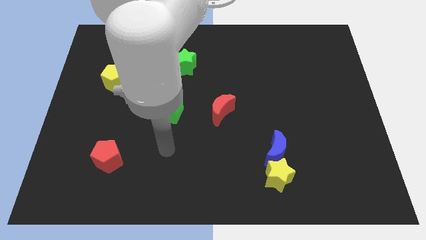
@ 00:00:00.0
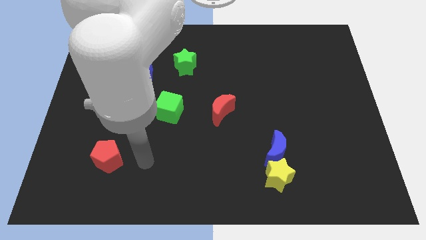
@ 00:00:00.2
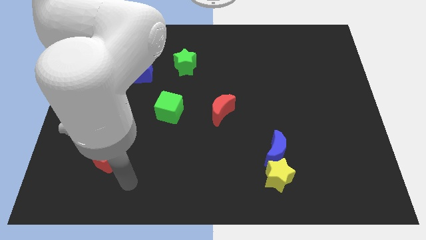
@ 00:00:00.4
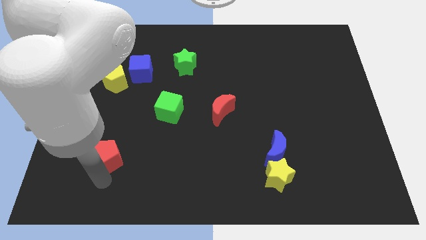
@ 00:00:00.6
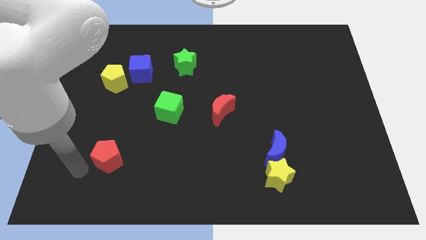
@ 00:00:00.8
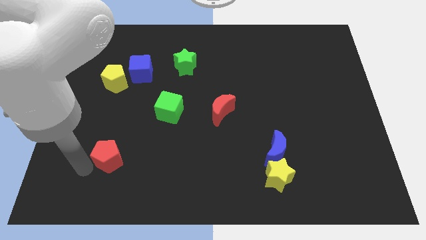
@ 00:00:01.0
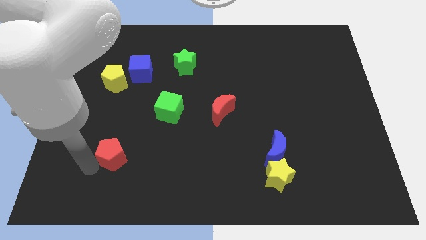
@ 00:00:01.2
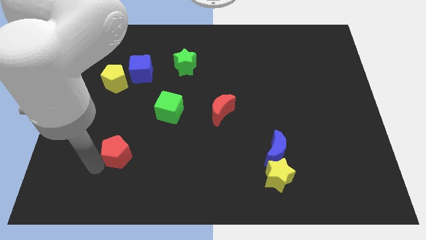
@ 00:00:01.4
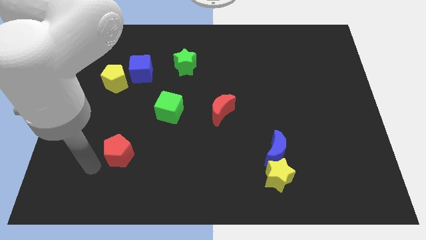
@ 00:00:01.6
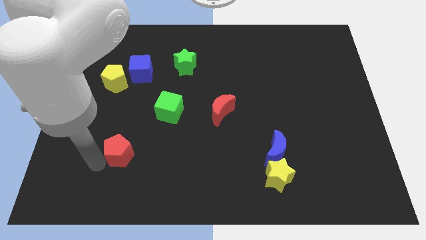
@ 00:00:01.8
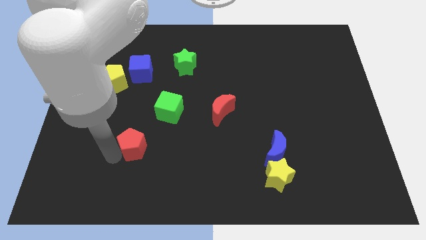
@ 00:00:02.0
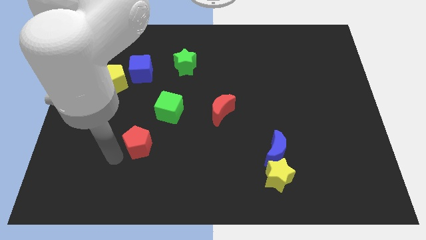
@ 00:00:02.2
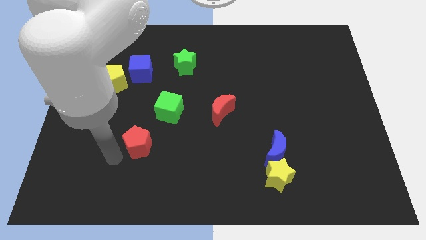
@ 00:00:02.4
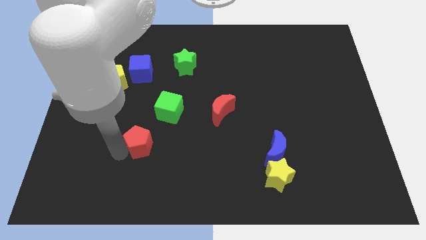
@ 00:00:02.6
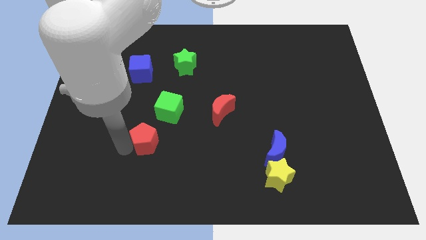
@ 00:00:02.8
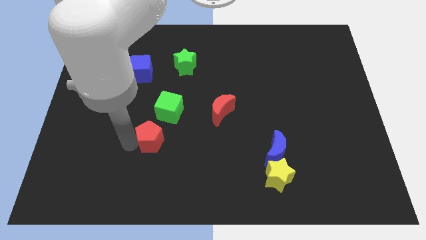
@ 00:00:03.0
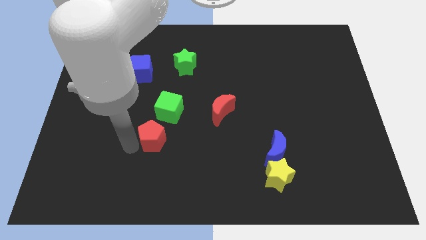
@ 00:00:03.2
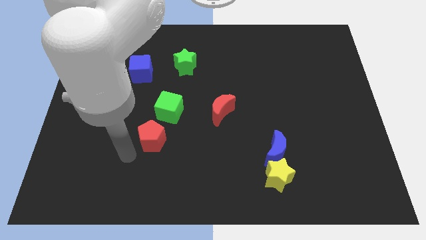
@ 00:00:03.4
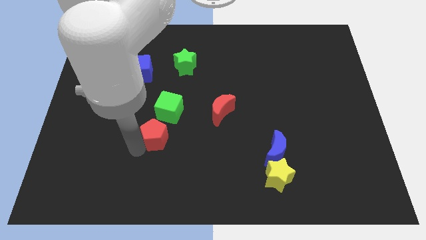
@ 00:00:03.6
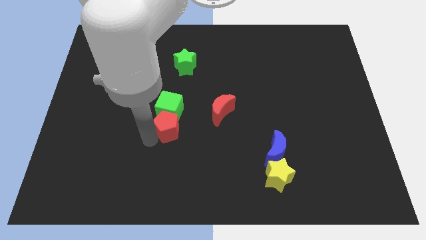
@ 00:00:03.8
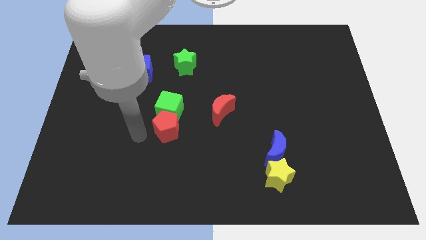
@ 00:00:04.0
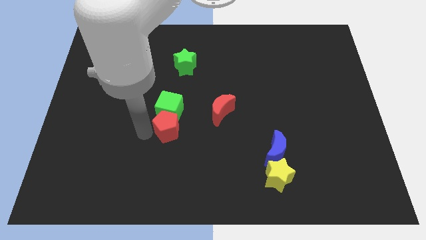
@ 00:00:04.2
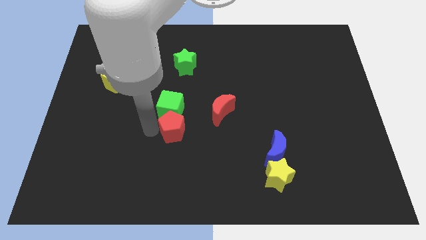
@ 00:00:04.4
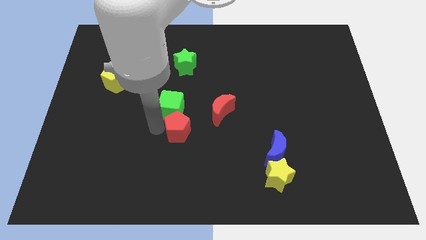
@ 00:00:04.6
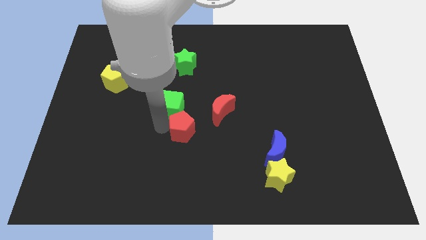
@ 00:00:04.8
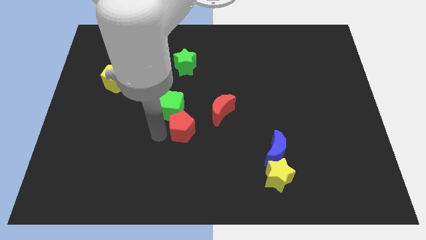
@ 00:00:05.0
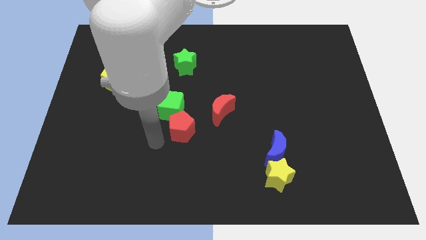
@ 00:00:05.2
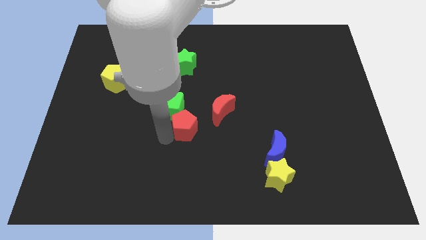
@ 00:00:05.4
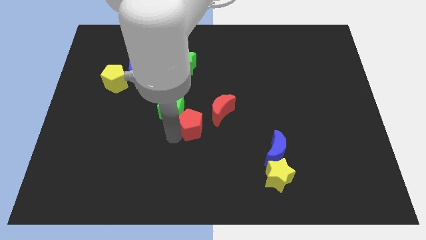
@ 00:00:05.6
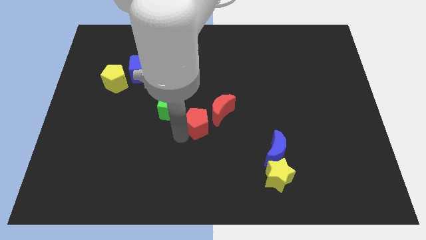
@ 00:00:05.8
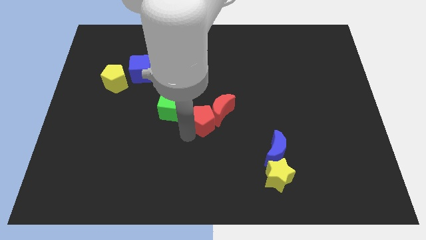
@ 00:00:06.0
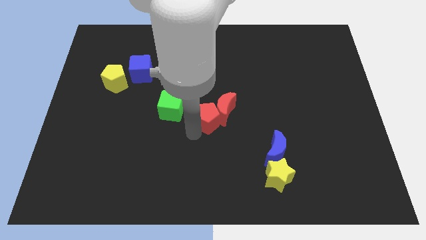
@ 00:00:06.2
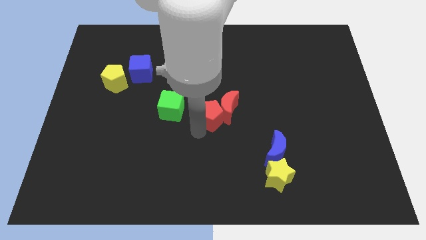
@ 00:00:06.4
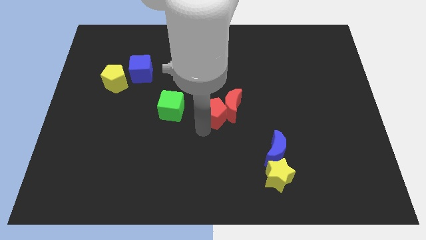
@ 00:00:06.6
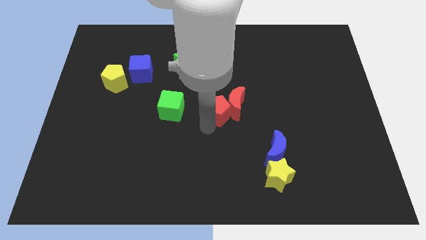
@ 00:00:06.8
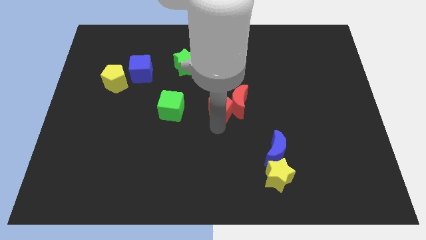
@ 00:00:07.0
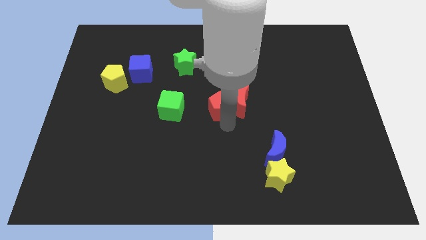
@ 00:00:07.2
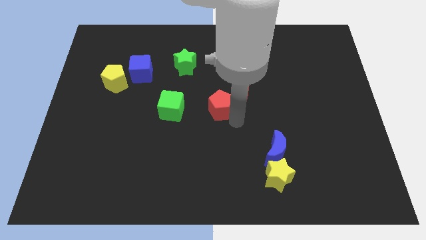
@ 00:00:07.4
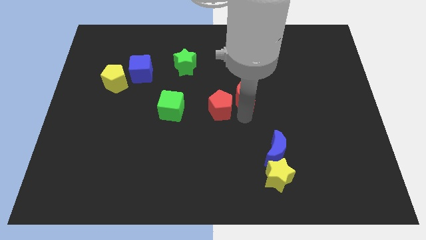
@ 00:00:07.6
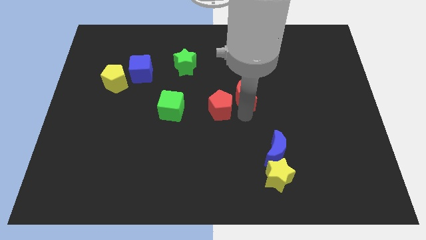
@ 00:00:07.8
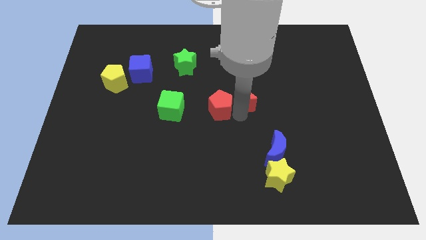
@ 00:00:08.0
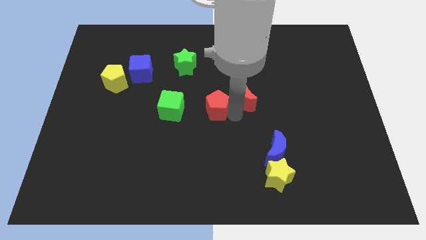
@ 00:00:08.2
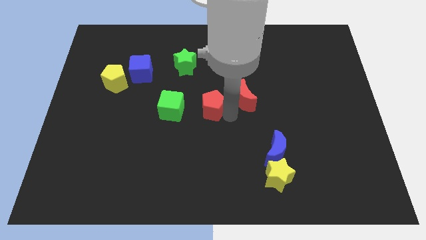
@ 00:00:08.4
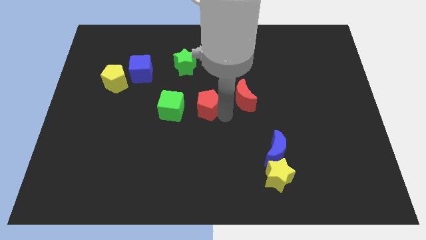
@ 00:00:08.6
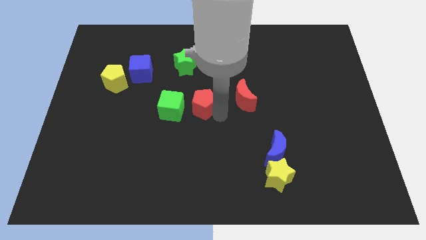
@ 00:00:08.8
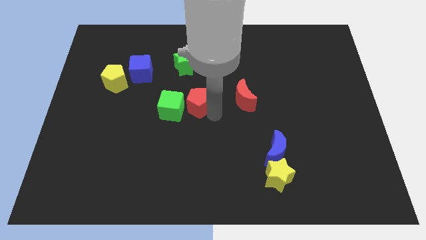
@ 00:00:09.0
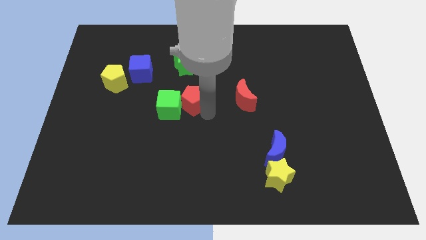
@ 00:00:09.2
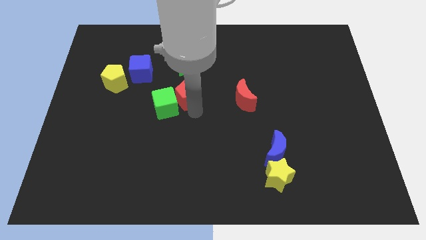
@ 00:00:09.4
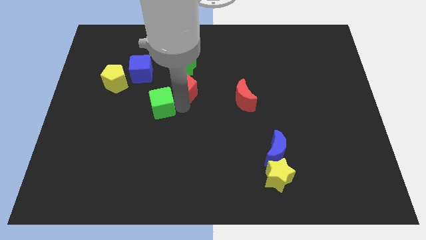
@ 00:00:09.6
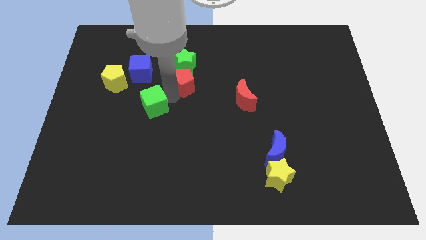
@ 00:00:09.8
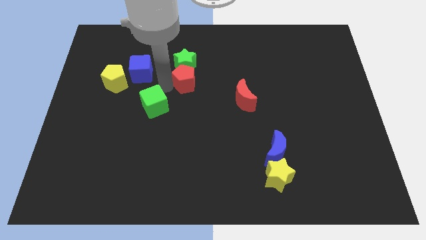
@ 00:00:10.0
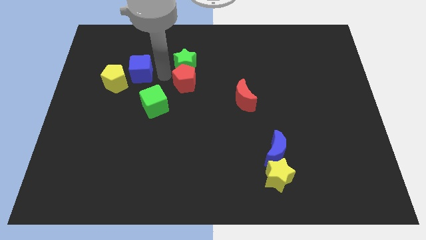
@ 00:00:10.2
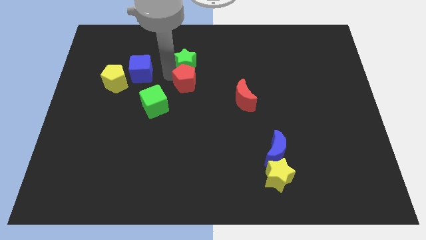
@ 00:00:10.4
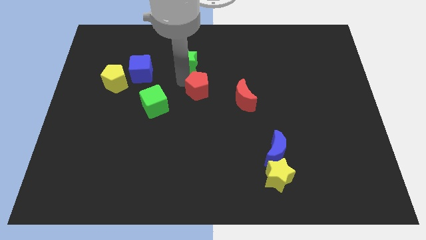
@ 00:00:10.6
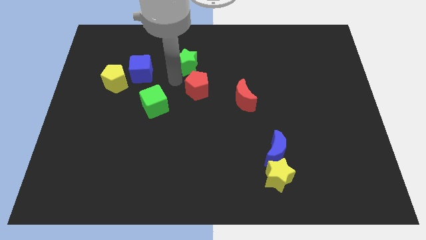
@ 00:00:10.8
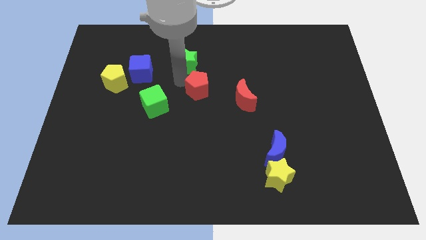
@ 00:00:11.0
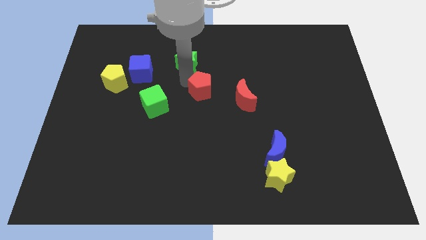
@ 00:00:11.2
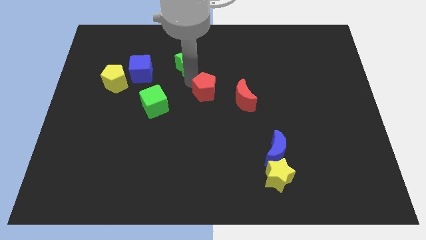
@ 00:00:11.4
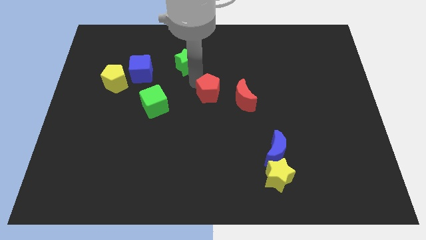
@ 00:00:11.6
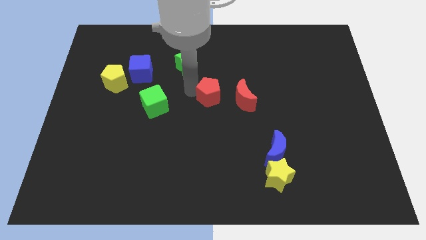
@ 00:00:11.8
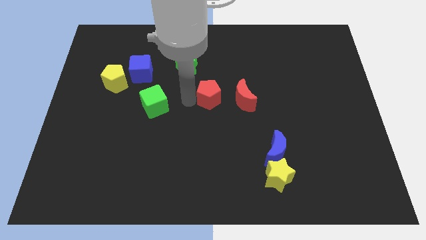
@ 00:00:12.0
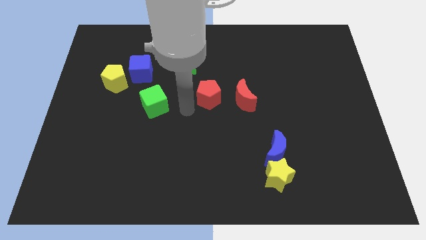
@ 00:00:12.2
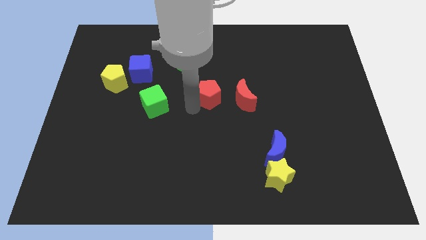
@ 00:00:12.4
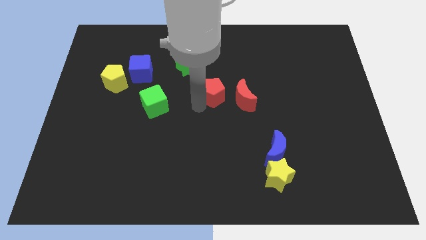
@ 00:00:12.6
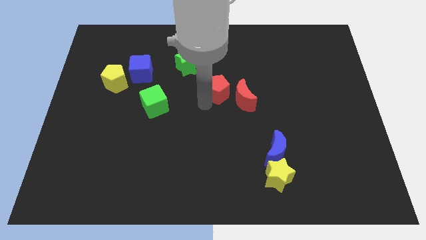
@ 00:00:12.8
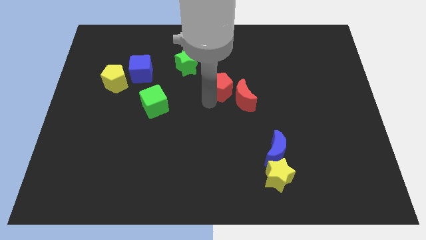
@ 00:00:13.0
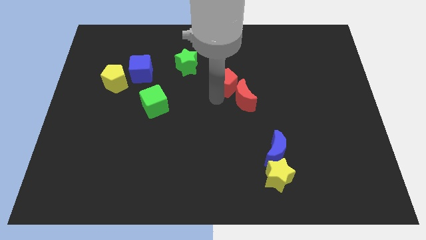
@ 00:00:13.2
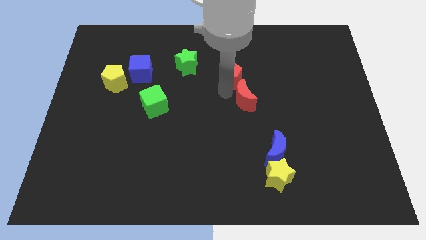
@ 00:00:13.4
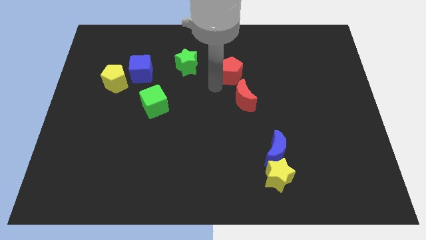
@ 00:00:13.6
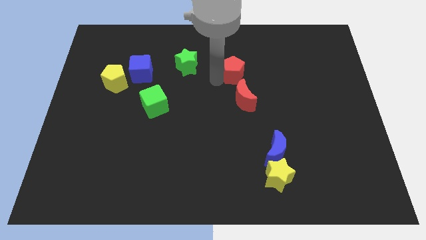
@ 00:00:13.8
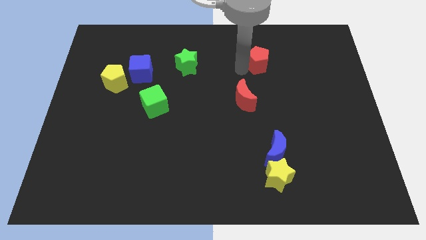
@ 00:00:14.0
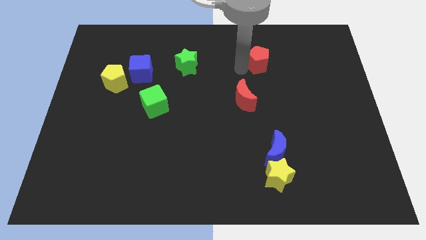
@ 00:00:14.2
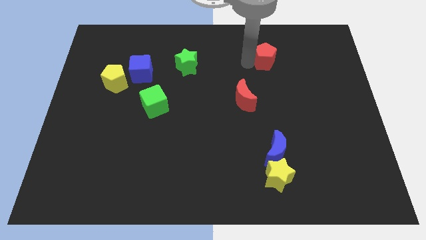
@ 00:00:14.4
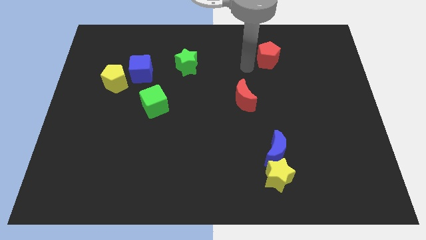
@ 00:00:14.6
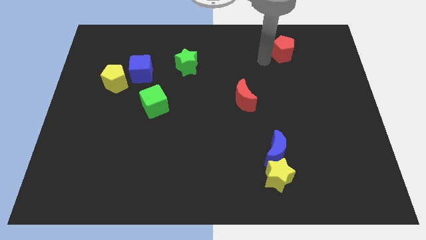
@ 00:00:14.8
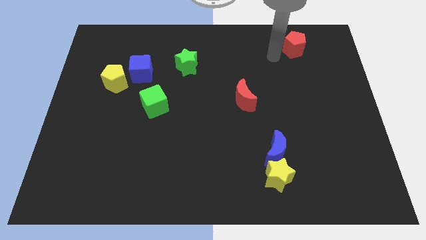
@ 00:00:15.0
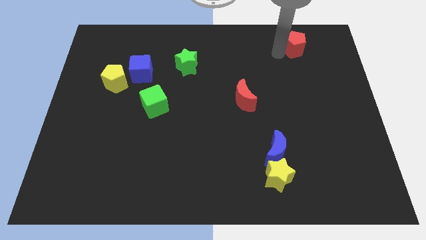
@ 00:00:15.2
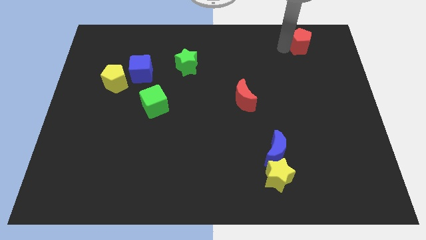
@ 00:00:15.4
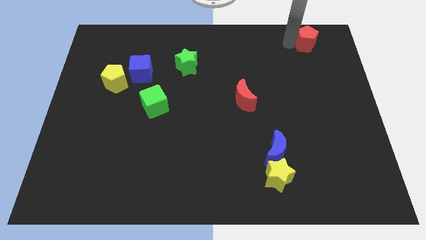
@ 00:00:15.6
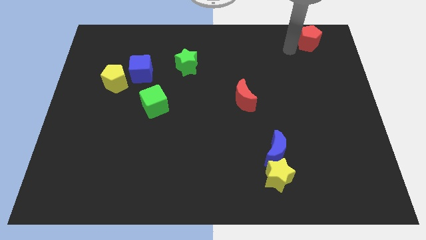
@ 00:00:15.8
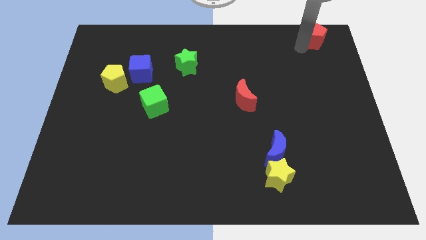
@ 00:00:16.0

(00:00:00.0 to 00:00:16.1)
put the red pentagon to the top right corner
